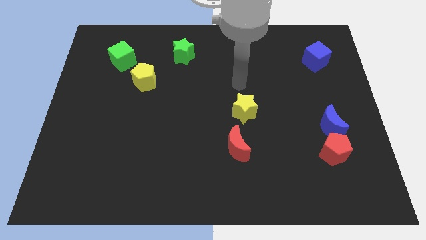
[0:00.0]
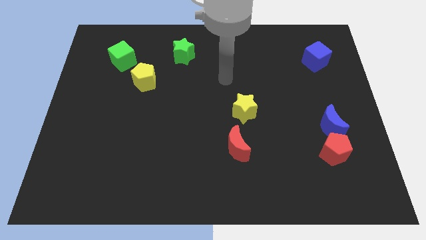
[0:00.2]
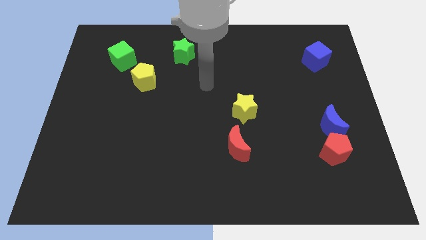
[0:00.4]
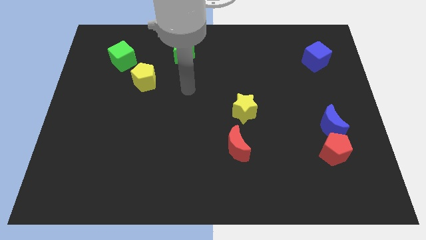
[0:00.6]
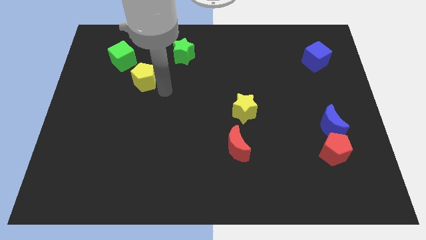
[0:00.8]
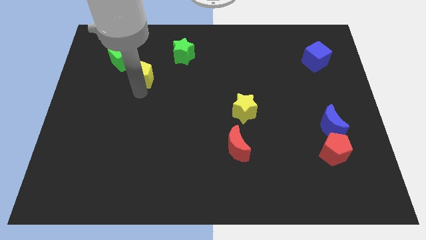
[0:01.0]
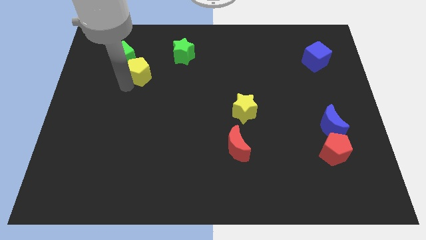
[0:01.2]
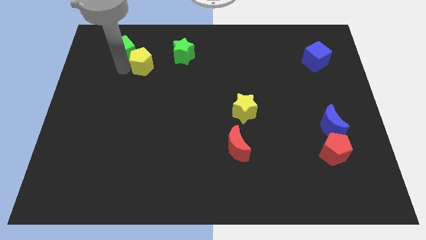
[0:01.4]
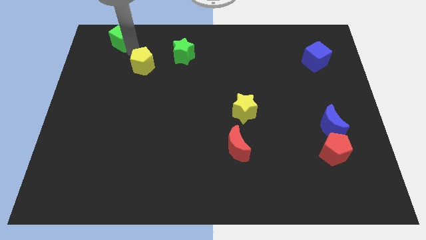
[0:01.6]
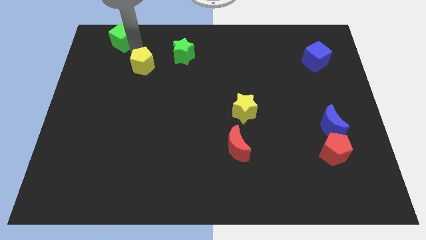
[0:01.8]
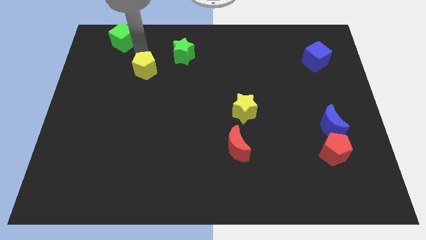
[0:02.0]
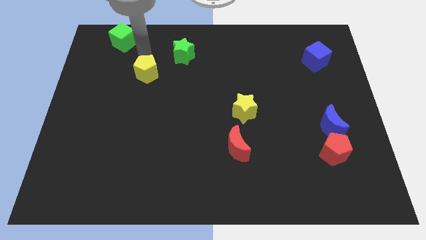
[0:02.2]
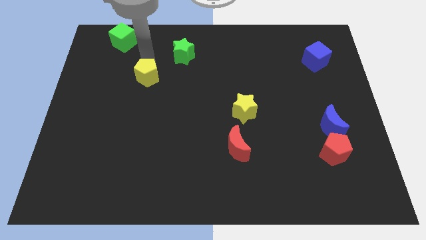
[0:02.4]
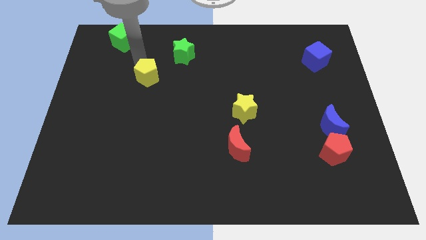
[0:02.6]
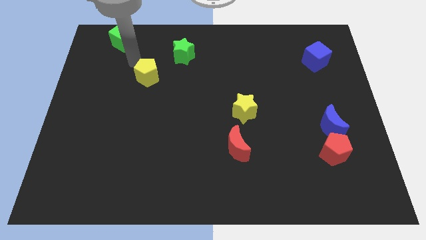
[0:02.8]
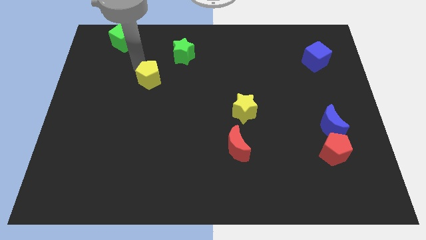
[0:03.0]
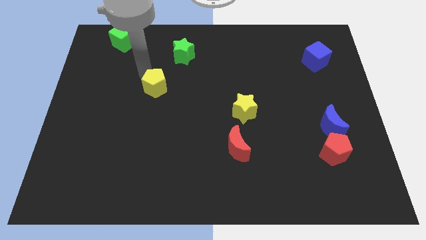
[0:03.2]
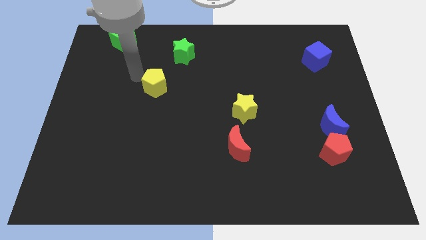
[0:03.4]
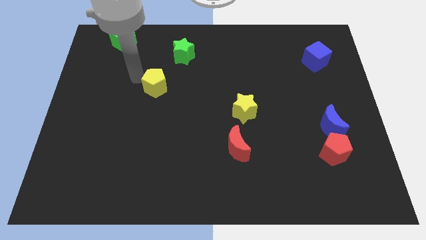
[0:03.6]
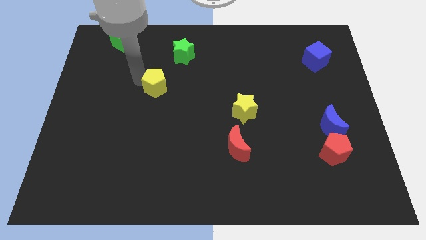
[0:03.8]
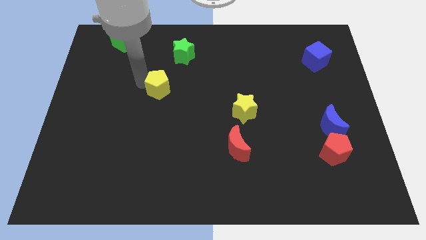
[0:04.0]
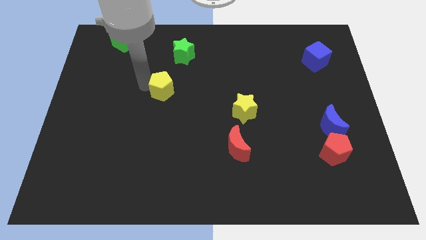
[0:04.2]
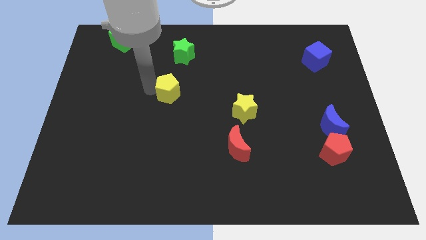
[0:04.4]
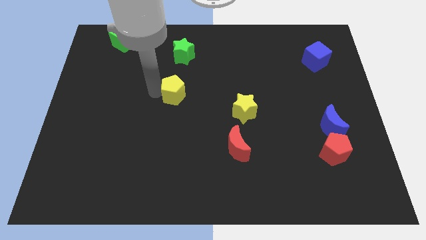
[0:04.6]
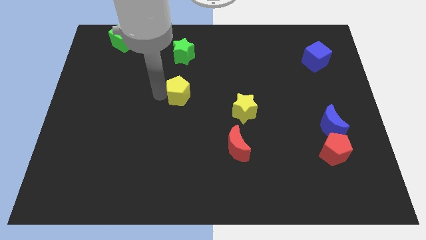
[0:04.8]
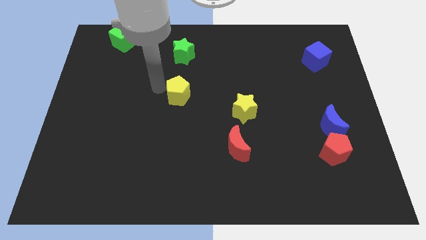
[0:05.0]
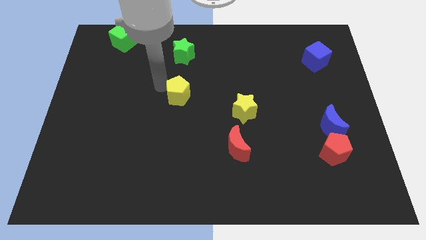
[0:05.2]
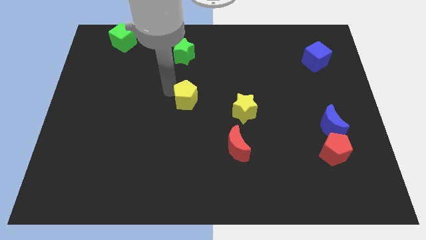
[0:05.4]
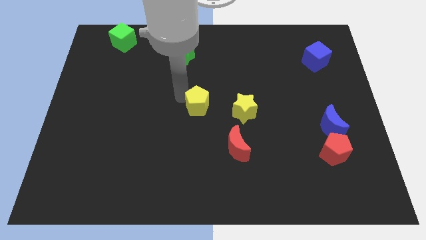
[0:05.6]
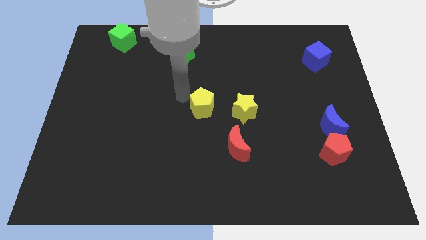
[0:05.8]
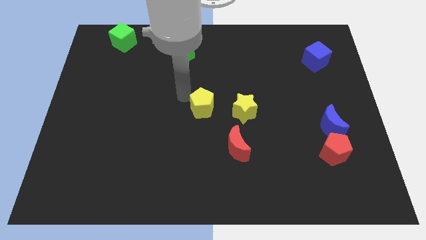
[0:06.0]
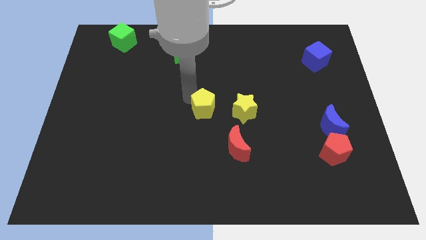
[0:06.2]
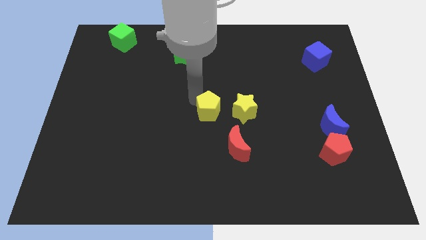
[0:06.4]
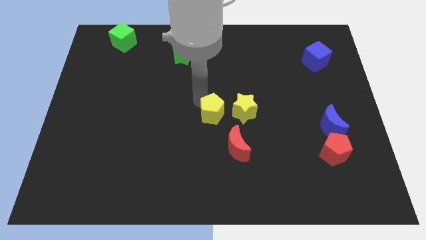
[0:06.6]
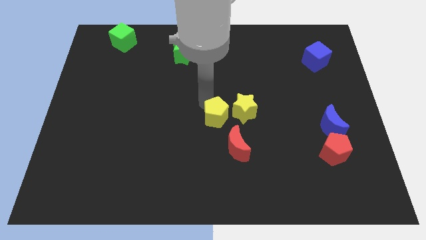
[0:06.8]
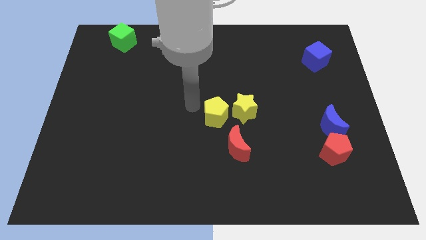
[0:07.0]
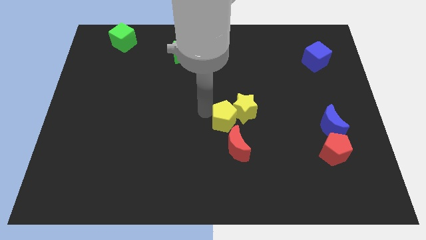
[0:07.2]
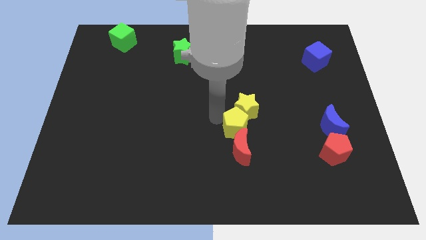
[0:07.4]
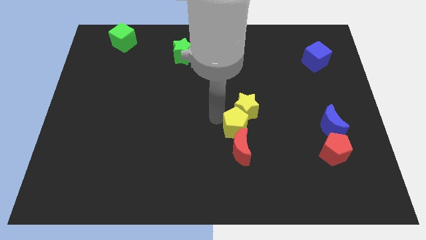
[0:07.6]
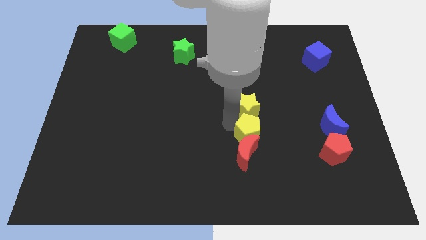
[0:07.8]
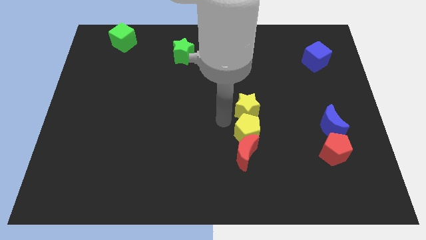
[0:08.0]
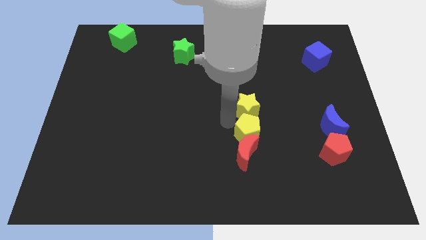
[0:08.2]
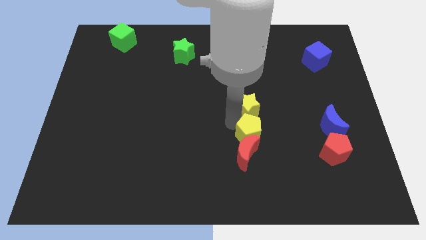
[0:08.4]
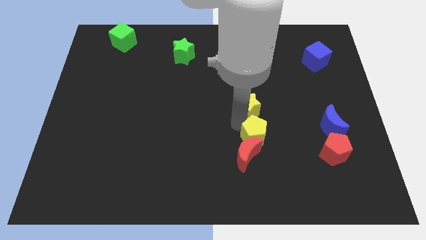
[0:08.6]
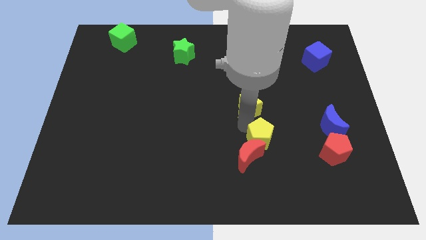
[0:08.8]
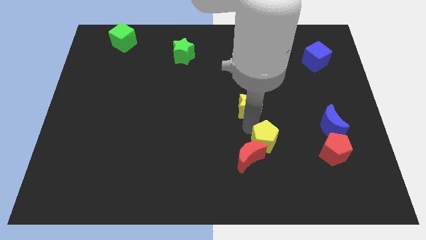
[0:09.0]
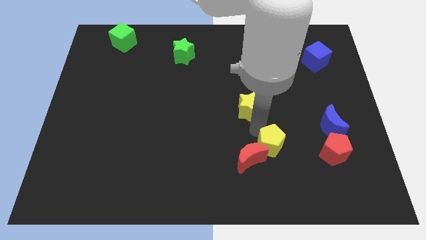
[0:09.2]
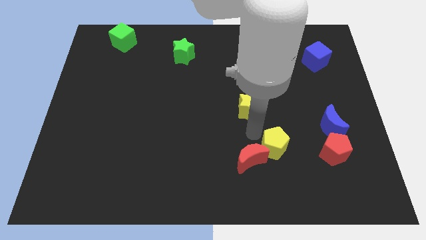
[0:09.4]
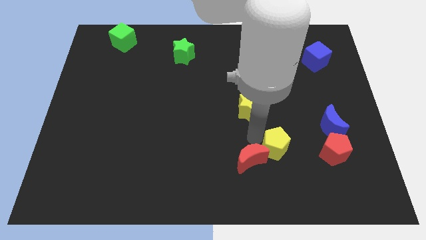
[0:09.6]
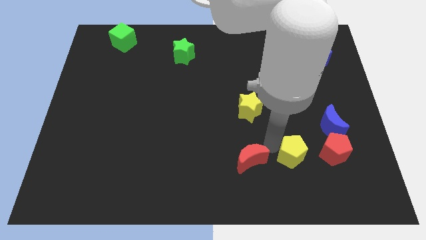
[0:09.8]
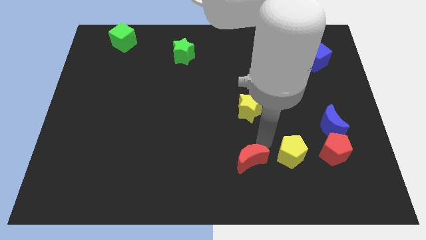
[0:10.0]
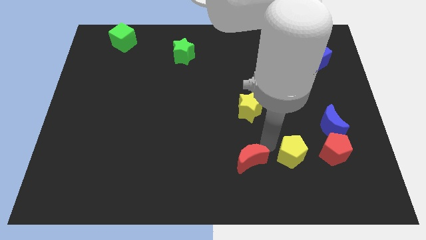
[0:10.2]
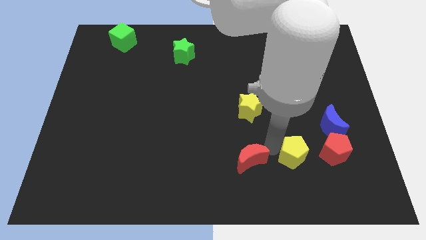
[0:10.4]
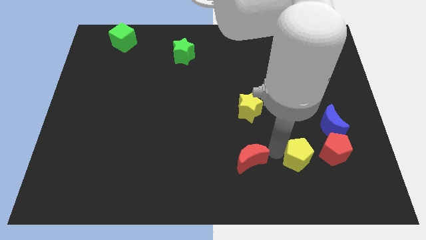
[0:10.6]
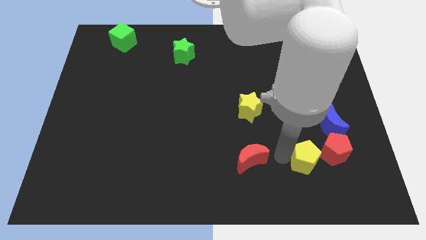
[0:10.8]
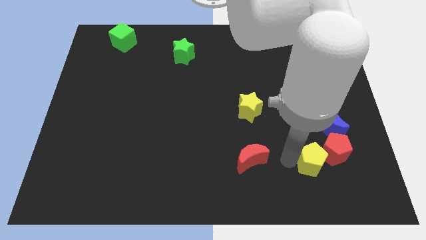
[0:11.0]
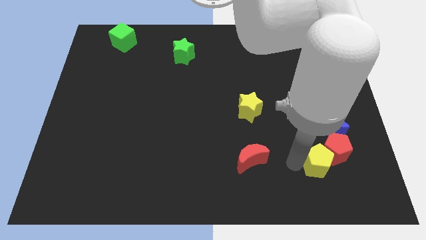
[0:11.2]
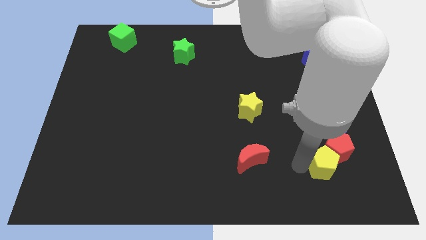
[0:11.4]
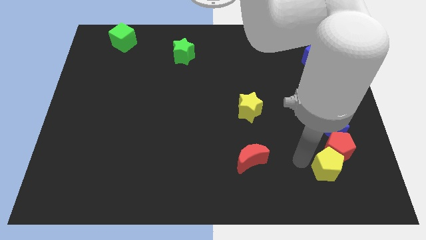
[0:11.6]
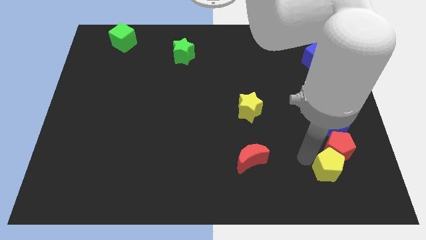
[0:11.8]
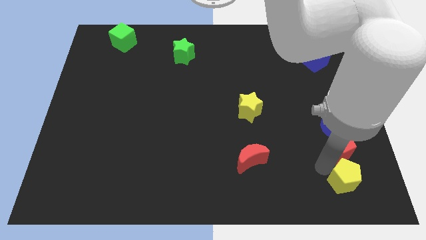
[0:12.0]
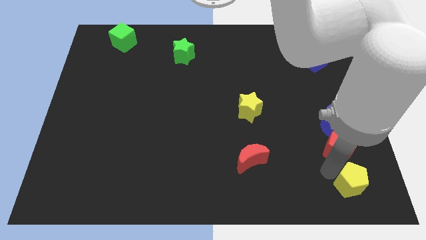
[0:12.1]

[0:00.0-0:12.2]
move the yellow pentagon to the bottom right

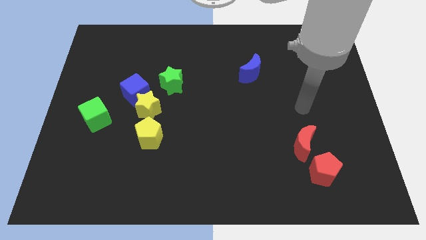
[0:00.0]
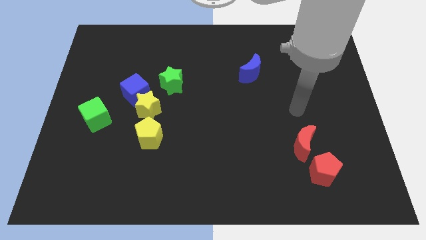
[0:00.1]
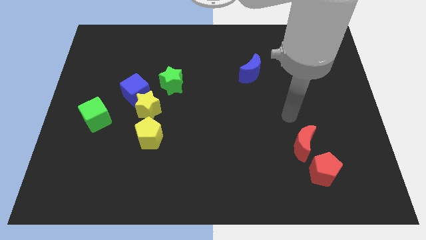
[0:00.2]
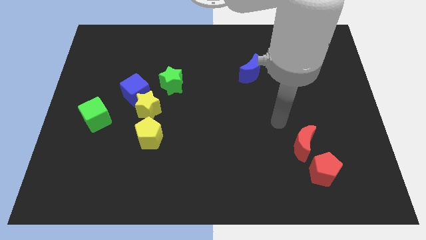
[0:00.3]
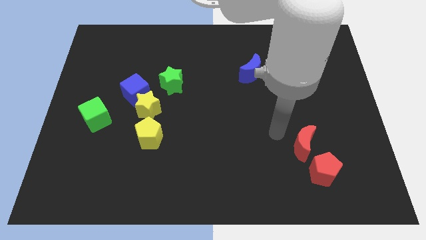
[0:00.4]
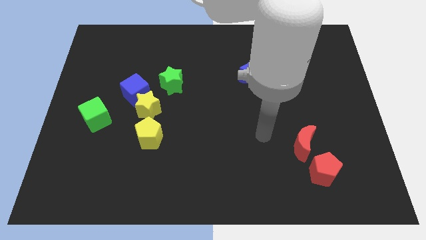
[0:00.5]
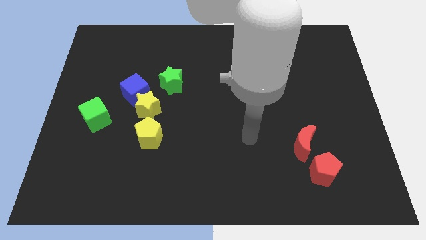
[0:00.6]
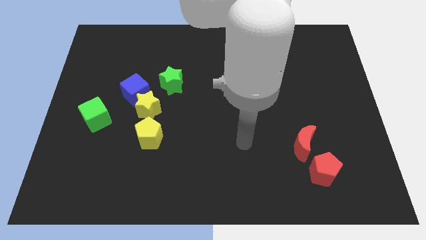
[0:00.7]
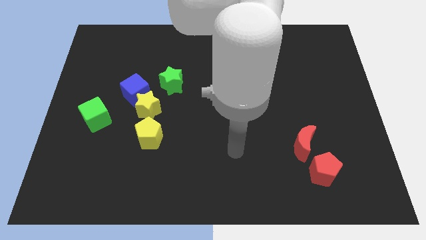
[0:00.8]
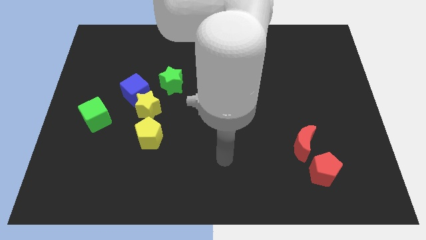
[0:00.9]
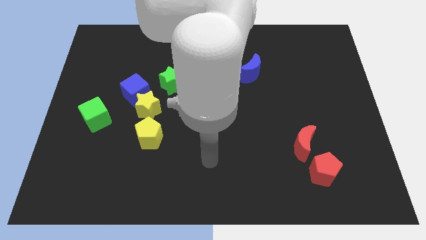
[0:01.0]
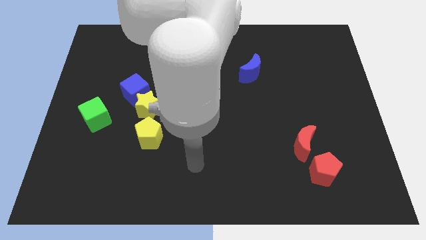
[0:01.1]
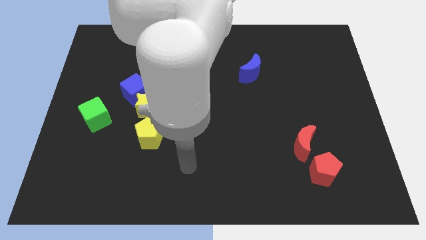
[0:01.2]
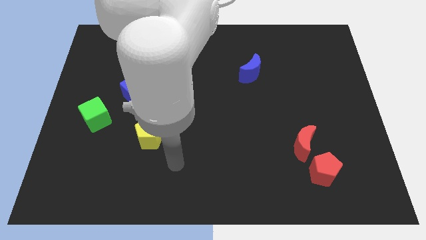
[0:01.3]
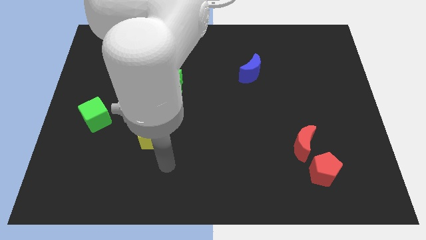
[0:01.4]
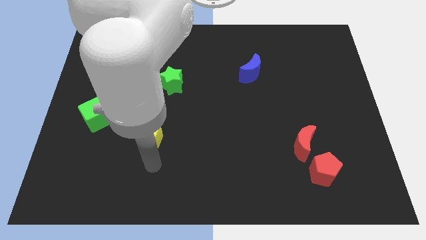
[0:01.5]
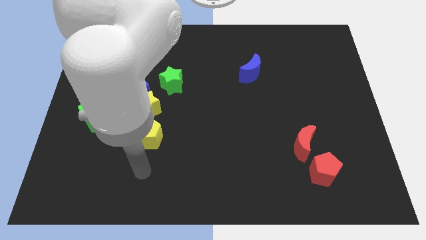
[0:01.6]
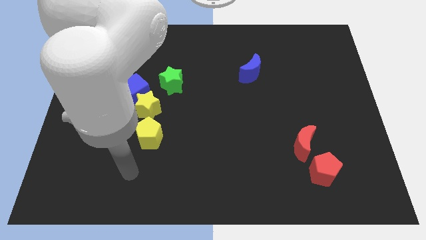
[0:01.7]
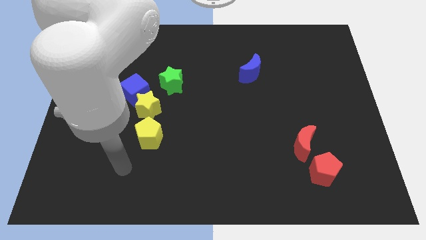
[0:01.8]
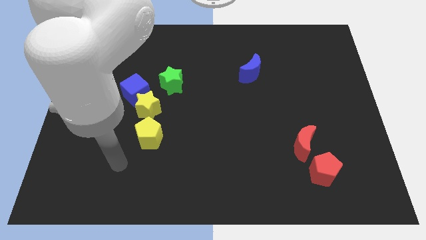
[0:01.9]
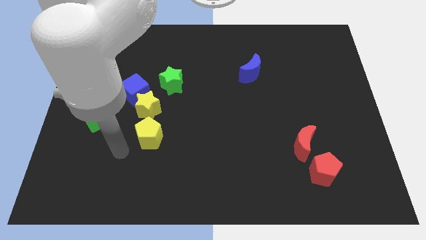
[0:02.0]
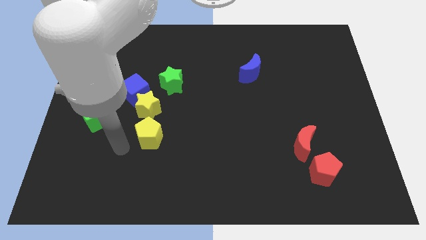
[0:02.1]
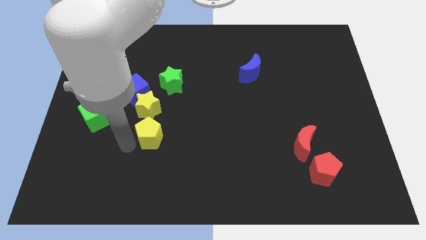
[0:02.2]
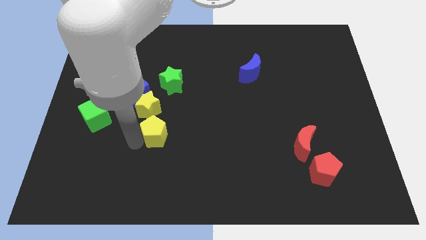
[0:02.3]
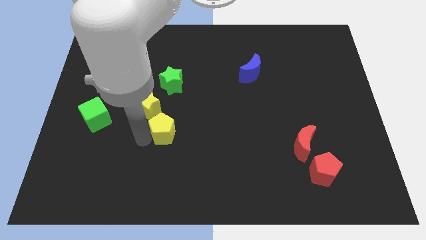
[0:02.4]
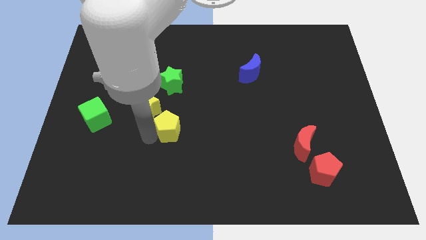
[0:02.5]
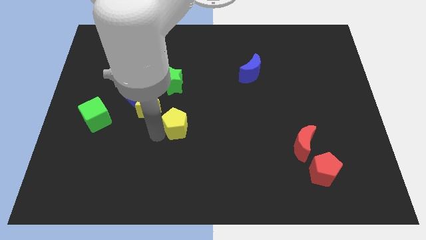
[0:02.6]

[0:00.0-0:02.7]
slide the yellow pentagon to the center
